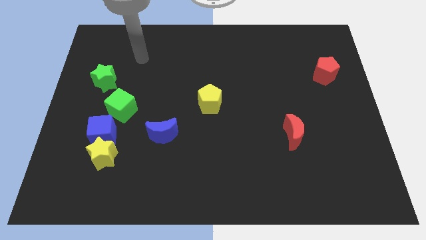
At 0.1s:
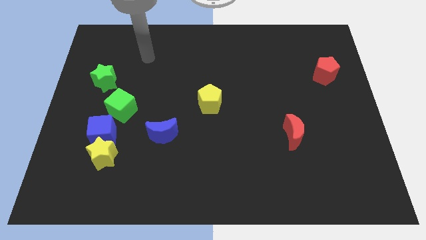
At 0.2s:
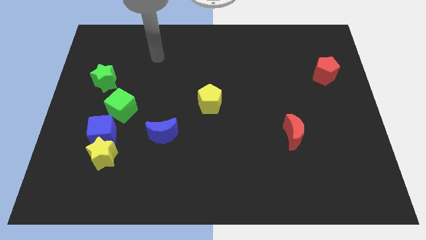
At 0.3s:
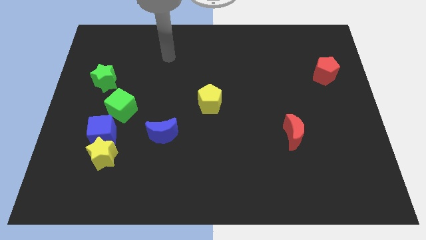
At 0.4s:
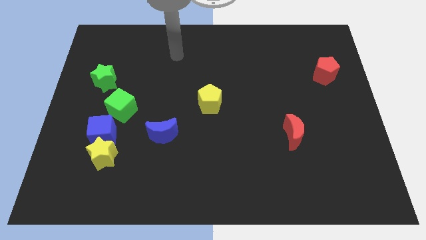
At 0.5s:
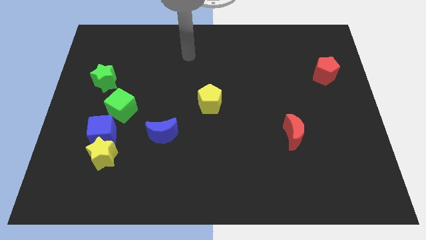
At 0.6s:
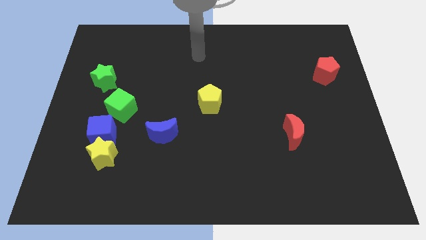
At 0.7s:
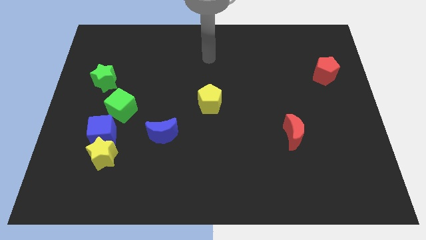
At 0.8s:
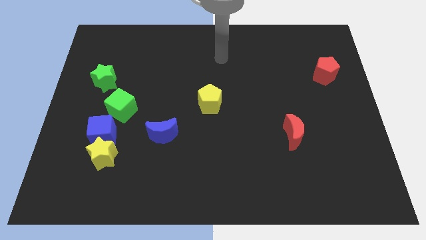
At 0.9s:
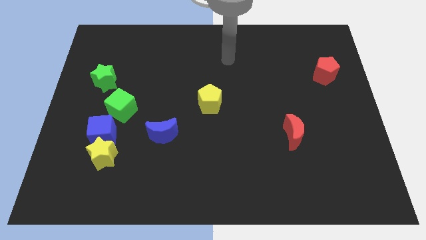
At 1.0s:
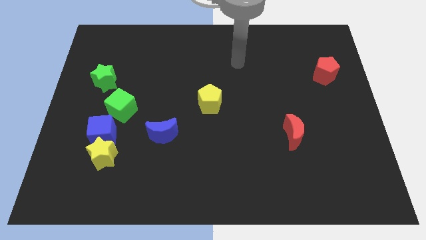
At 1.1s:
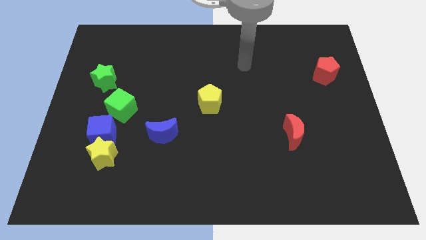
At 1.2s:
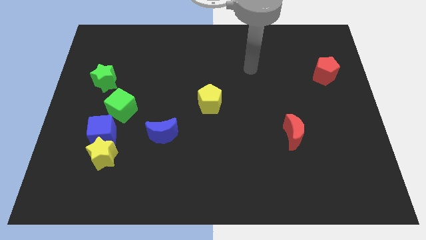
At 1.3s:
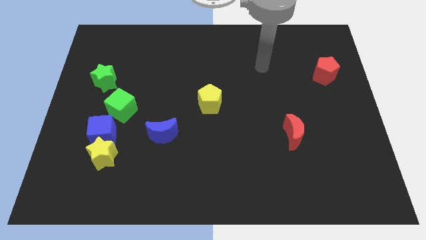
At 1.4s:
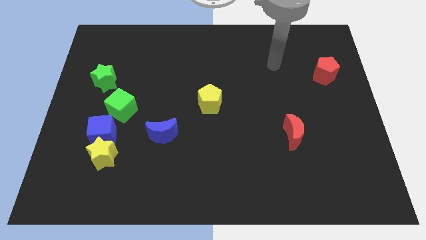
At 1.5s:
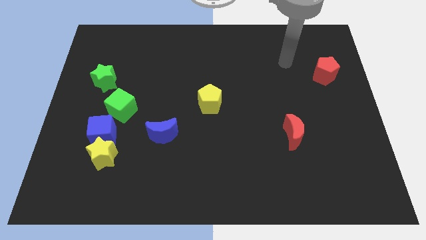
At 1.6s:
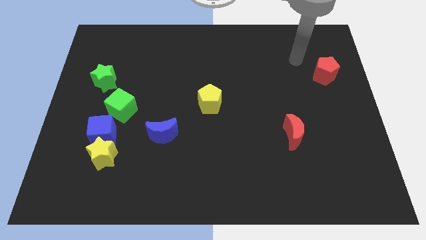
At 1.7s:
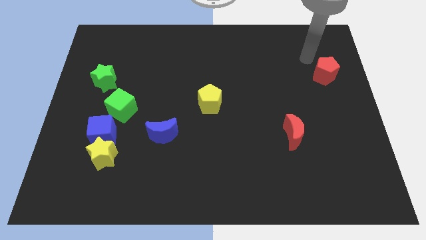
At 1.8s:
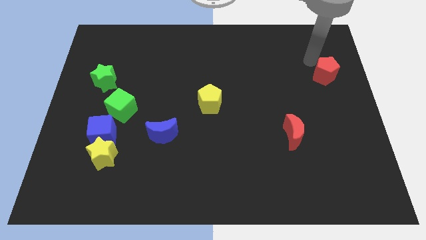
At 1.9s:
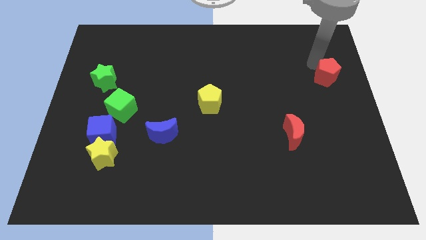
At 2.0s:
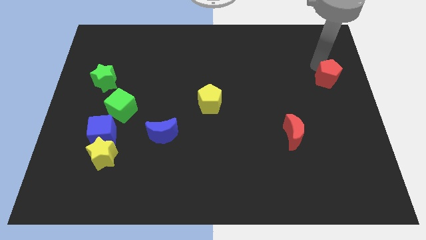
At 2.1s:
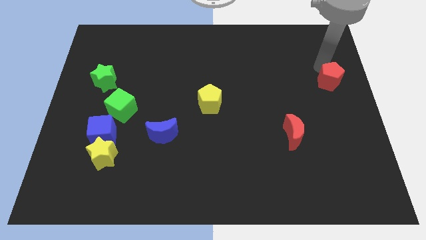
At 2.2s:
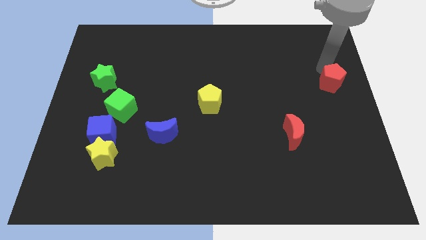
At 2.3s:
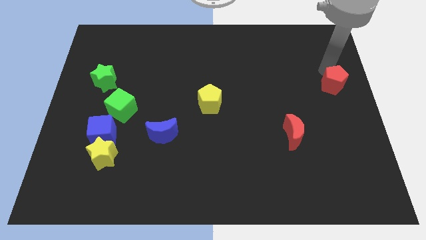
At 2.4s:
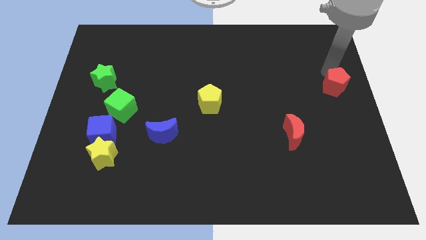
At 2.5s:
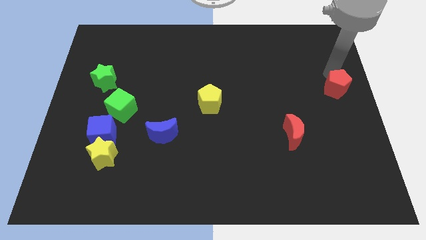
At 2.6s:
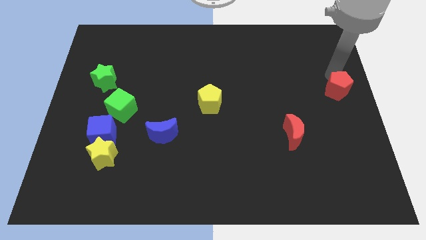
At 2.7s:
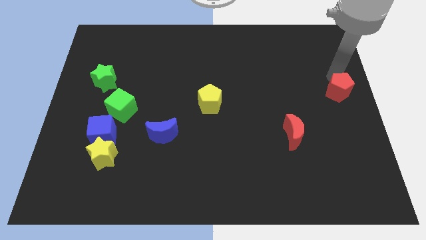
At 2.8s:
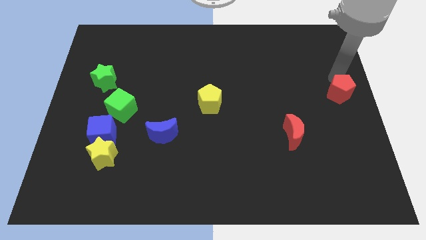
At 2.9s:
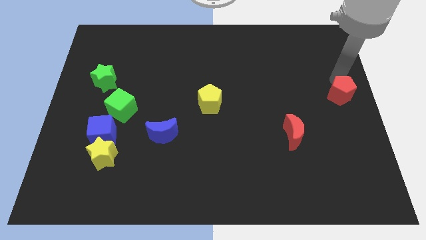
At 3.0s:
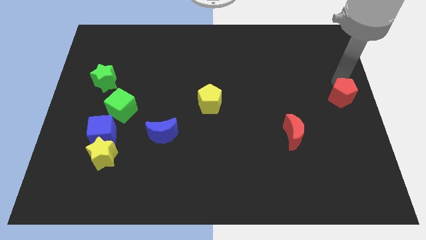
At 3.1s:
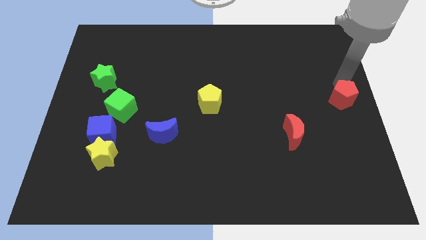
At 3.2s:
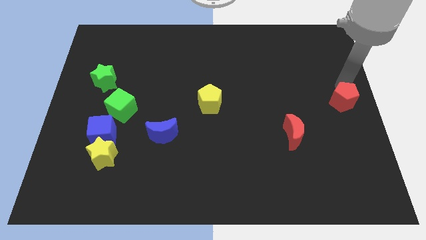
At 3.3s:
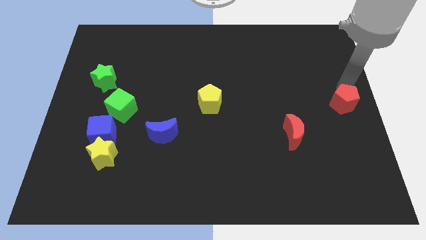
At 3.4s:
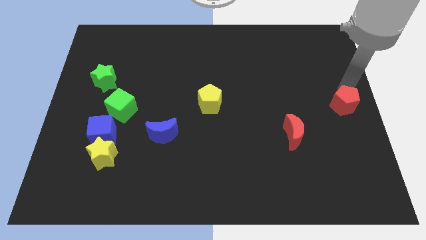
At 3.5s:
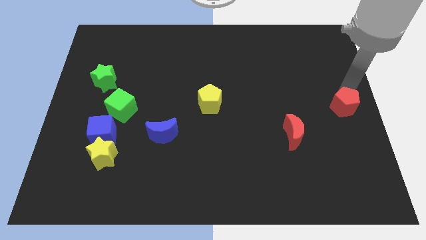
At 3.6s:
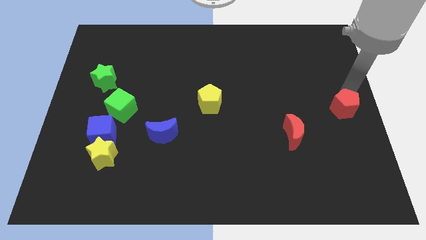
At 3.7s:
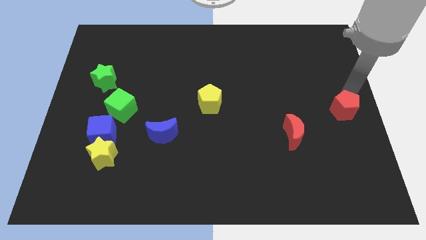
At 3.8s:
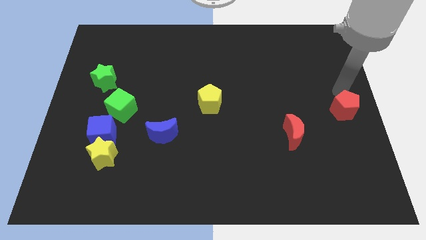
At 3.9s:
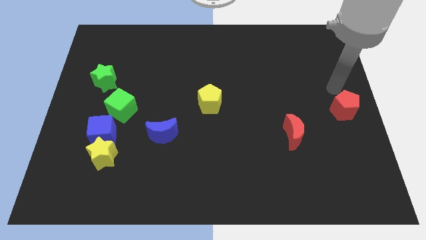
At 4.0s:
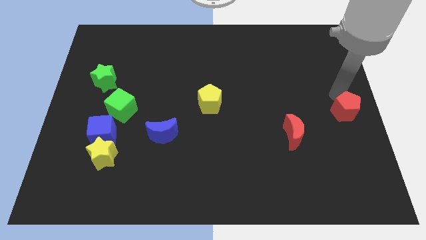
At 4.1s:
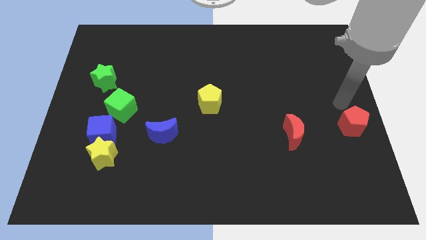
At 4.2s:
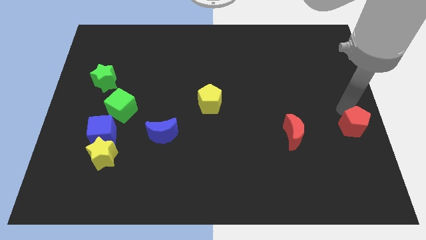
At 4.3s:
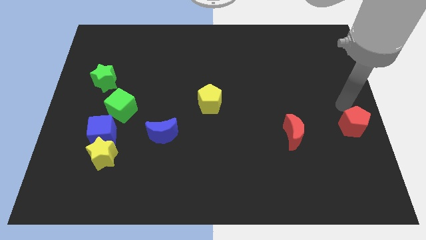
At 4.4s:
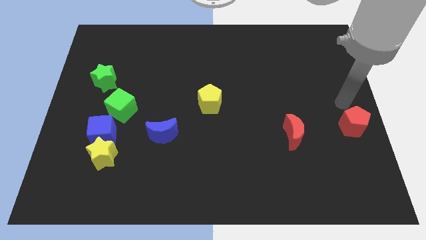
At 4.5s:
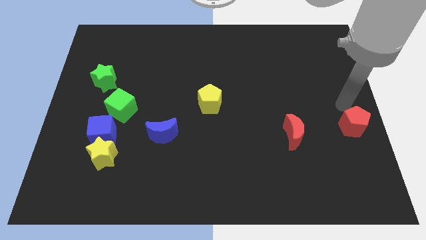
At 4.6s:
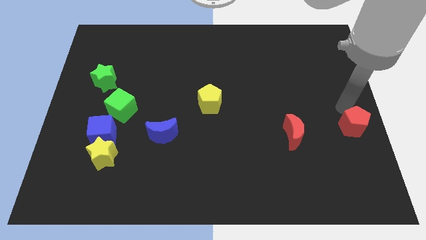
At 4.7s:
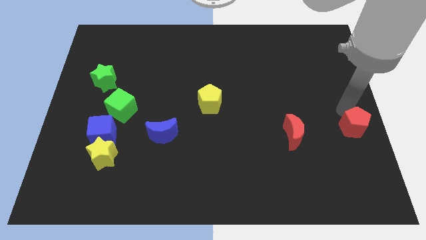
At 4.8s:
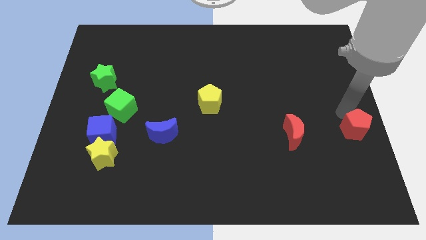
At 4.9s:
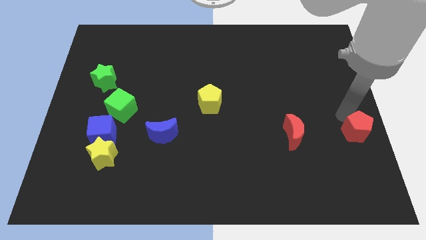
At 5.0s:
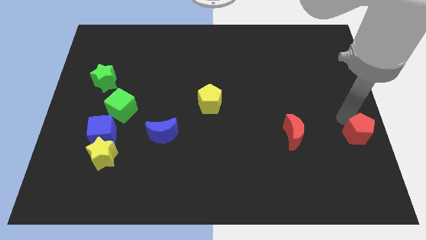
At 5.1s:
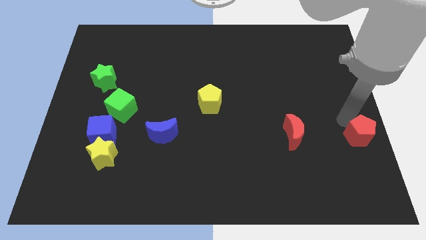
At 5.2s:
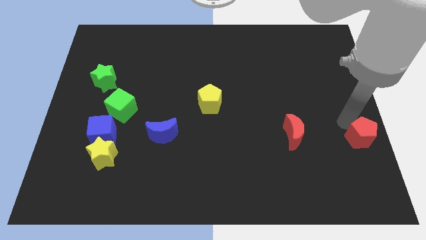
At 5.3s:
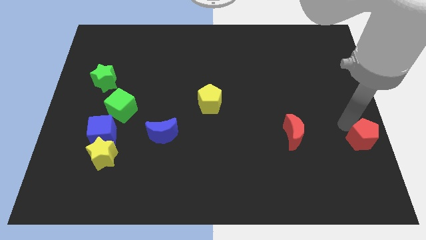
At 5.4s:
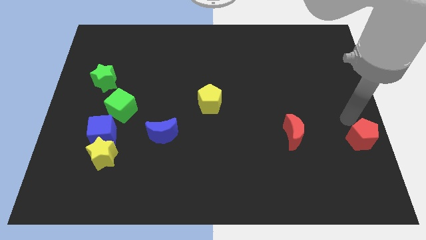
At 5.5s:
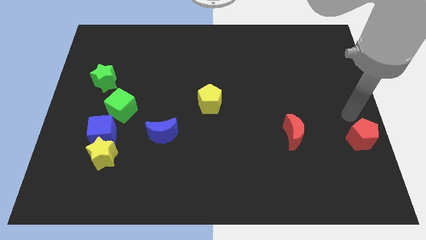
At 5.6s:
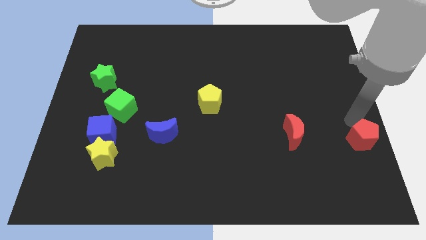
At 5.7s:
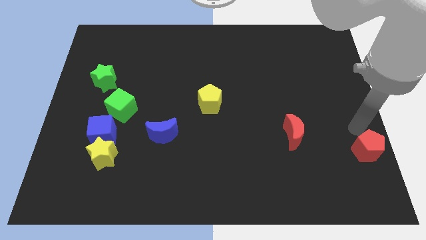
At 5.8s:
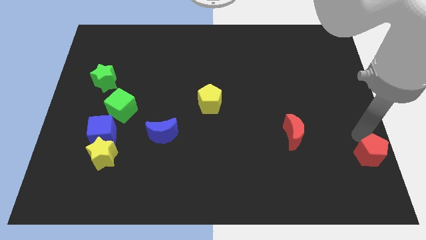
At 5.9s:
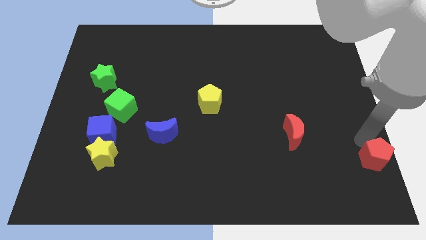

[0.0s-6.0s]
put the red pentagon to the bottom right corner

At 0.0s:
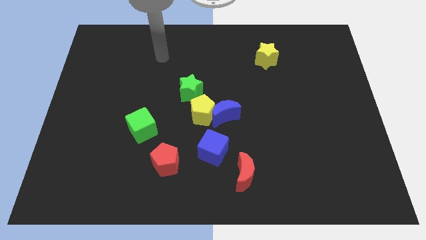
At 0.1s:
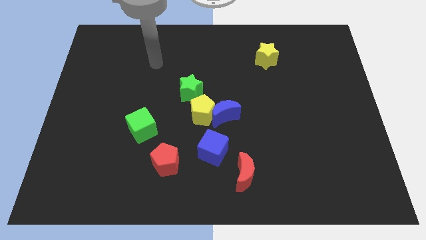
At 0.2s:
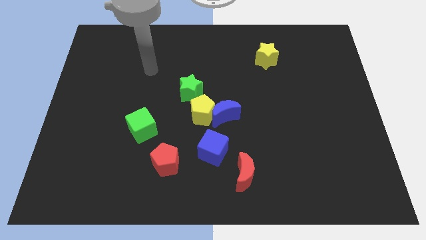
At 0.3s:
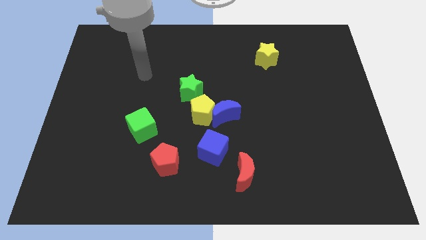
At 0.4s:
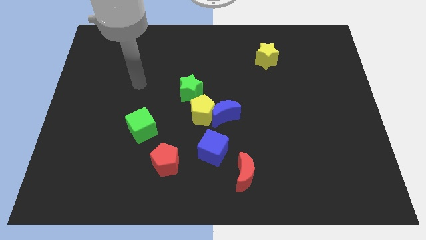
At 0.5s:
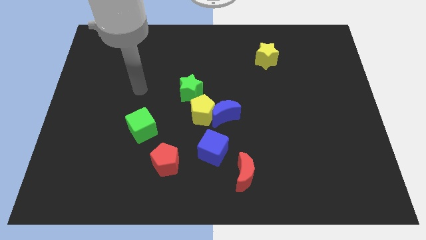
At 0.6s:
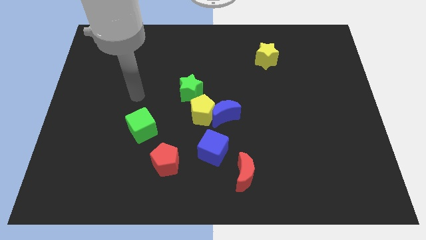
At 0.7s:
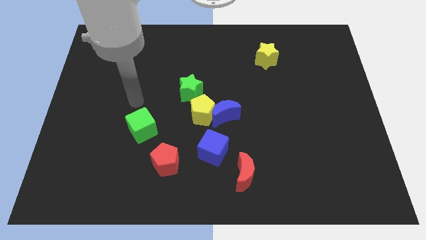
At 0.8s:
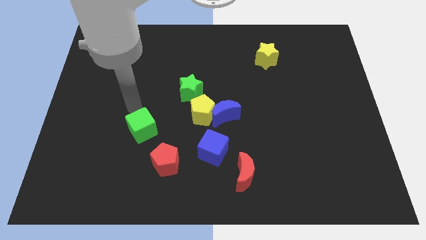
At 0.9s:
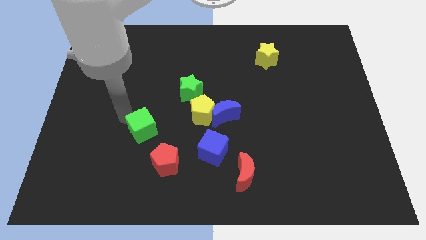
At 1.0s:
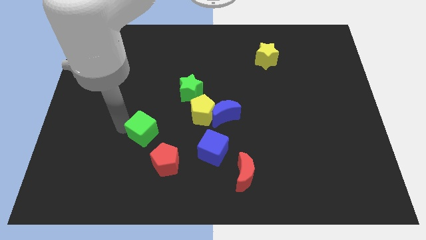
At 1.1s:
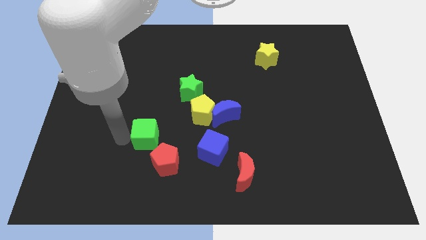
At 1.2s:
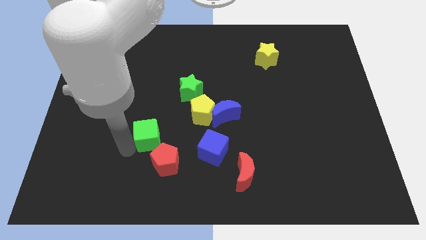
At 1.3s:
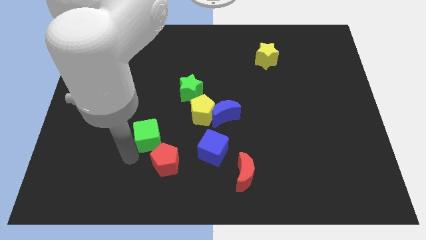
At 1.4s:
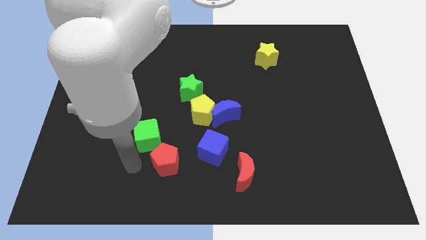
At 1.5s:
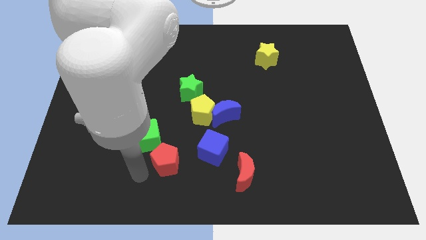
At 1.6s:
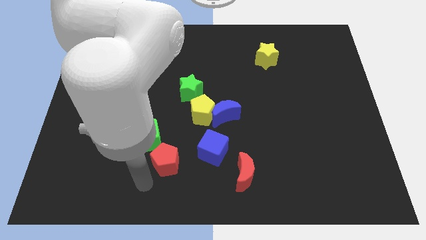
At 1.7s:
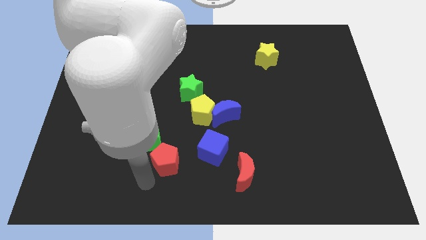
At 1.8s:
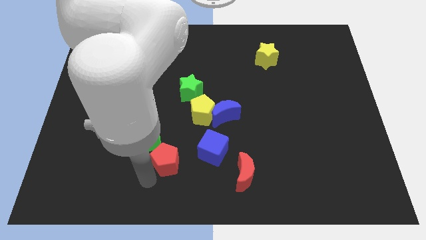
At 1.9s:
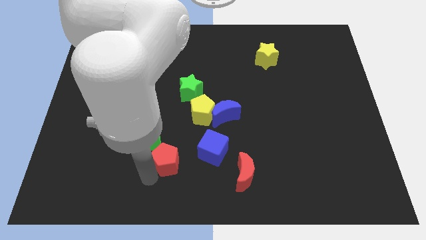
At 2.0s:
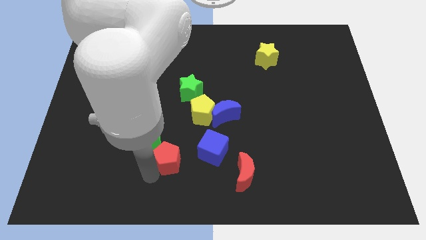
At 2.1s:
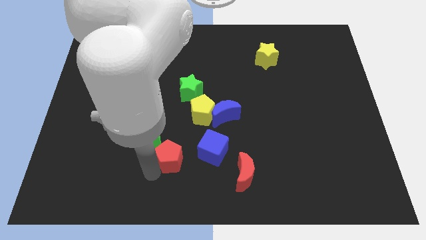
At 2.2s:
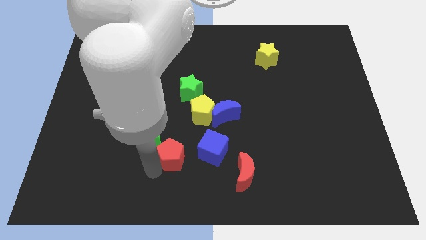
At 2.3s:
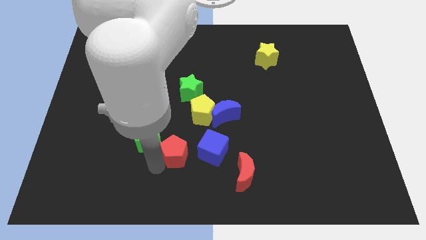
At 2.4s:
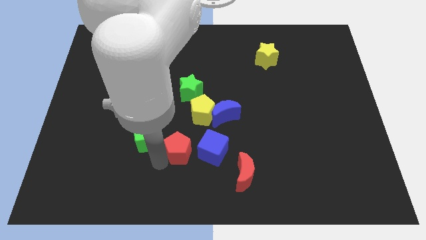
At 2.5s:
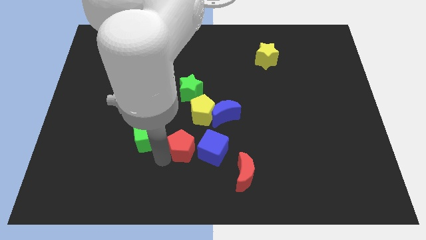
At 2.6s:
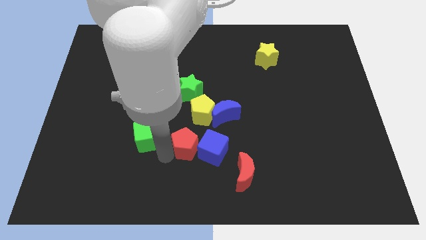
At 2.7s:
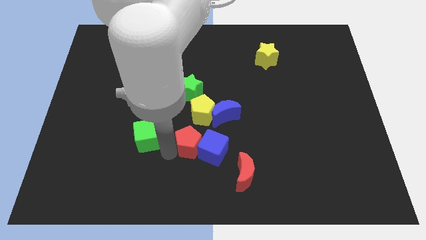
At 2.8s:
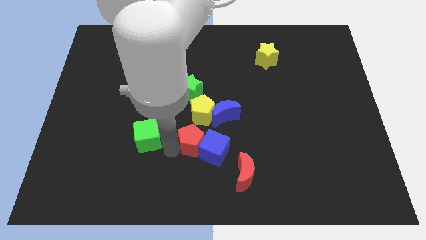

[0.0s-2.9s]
push the red pentagon to the middle of the board
